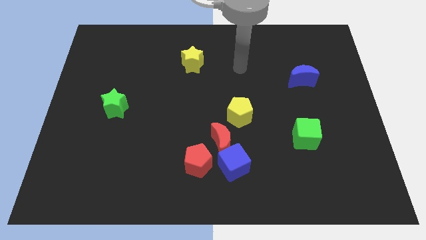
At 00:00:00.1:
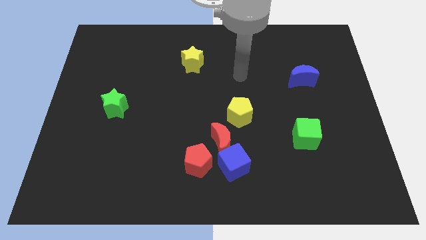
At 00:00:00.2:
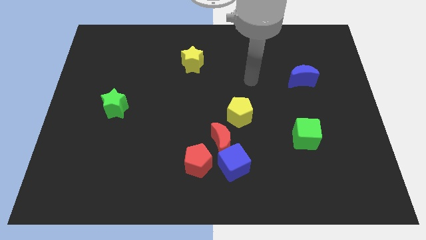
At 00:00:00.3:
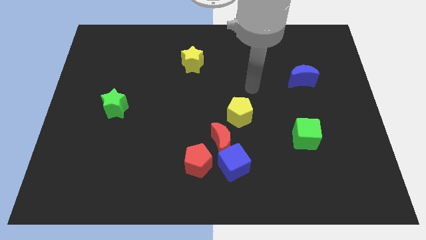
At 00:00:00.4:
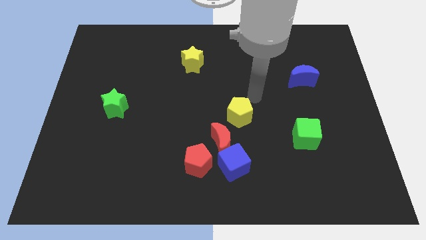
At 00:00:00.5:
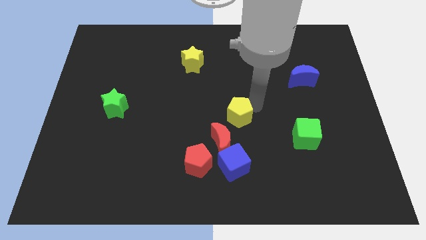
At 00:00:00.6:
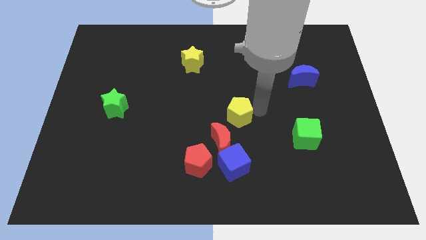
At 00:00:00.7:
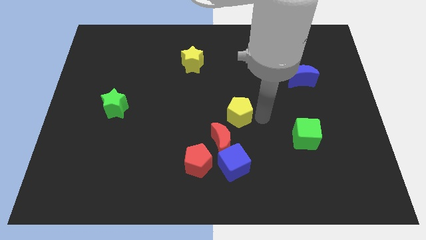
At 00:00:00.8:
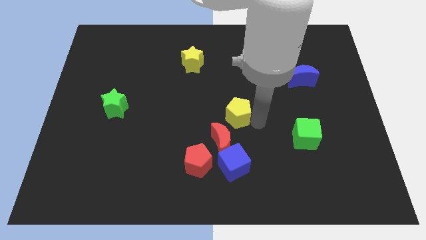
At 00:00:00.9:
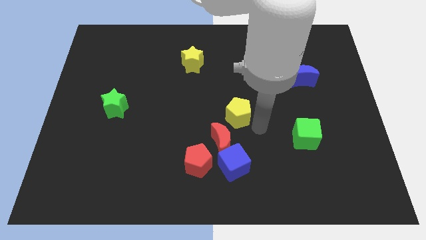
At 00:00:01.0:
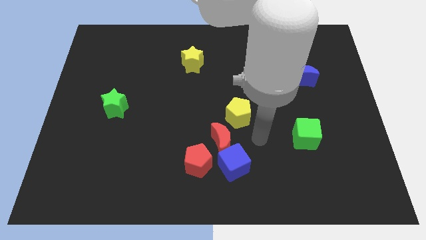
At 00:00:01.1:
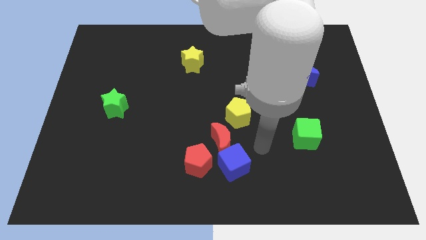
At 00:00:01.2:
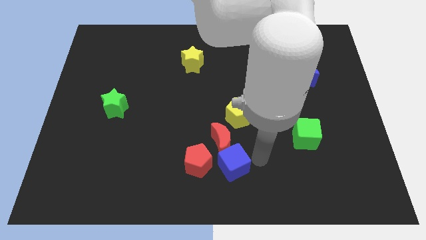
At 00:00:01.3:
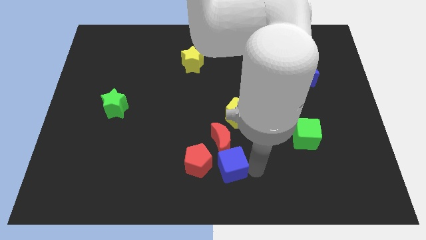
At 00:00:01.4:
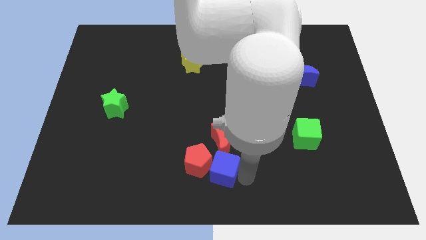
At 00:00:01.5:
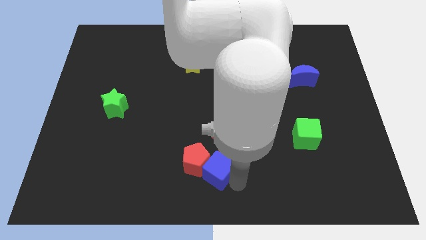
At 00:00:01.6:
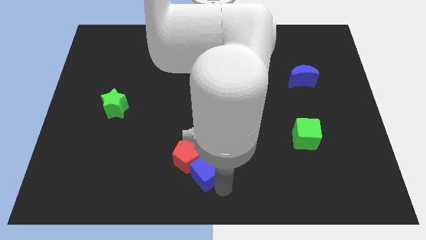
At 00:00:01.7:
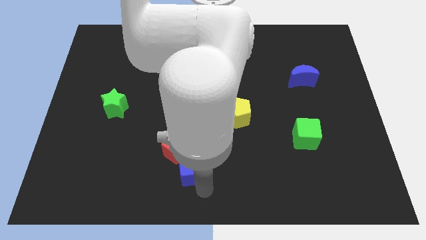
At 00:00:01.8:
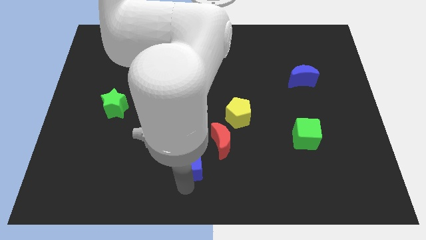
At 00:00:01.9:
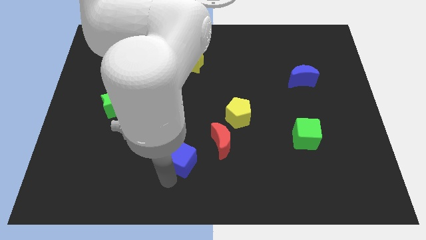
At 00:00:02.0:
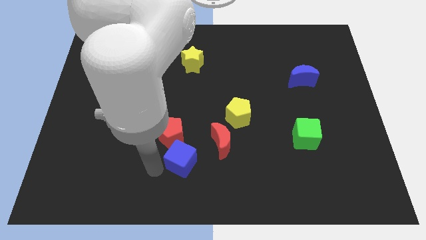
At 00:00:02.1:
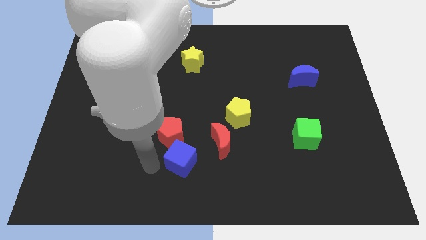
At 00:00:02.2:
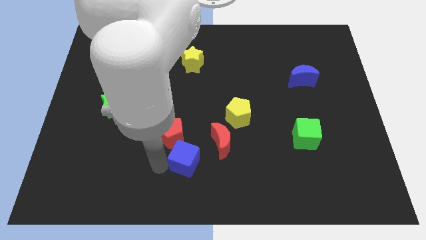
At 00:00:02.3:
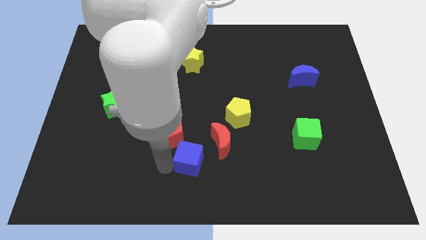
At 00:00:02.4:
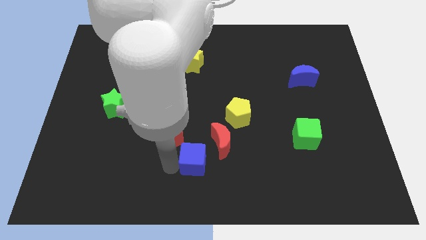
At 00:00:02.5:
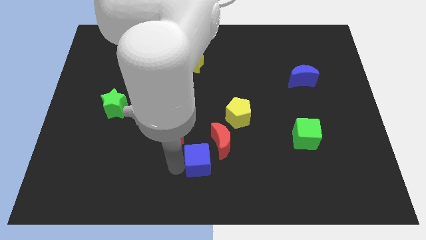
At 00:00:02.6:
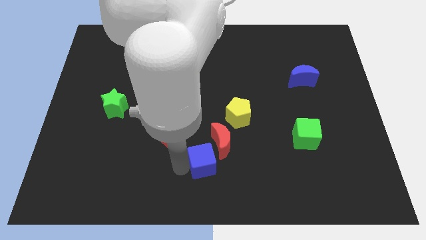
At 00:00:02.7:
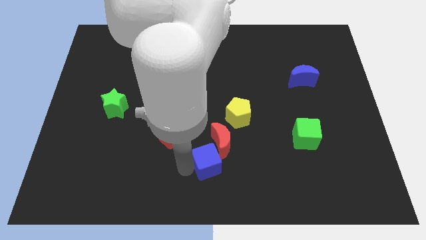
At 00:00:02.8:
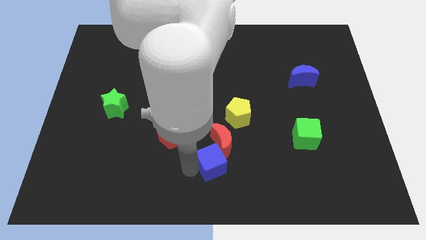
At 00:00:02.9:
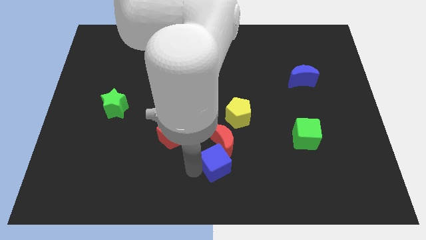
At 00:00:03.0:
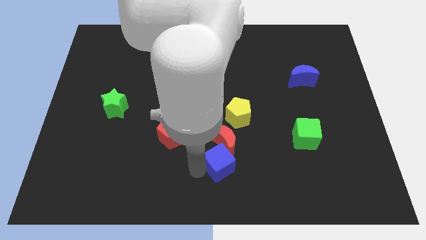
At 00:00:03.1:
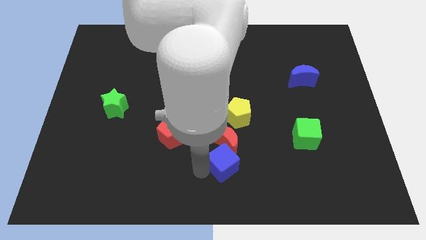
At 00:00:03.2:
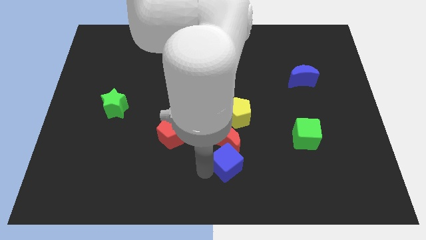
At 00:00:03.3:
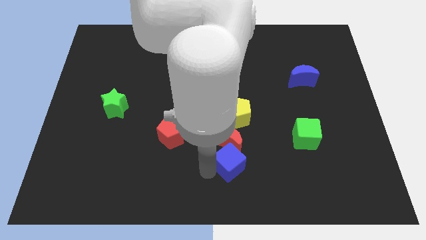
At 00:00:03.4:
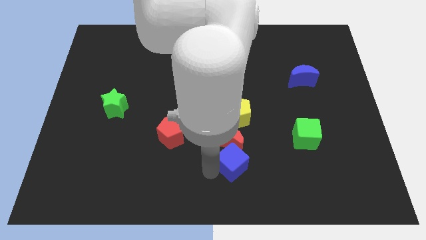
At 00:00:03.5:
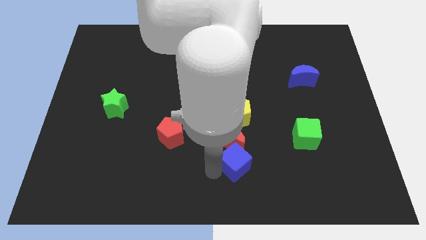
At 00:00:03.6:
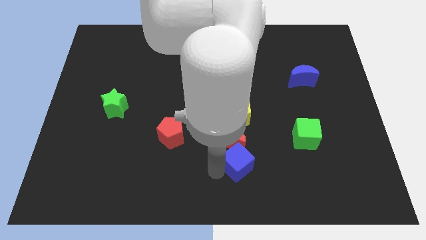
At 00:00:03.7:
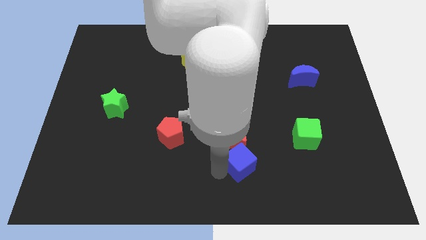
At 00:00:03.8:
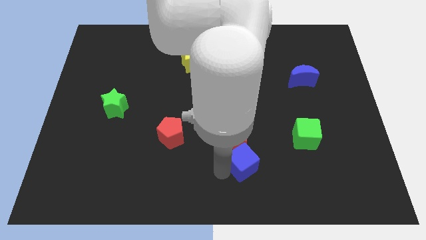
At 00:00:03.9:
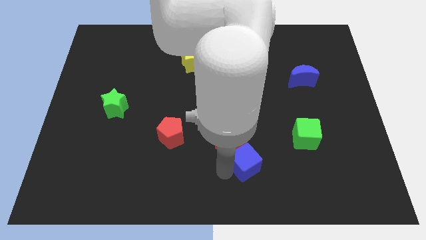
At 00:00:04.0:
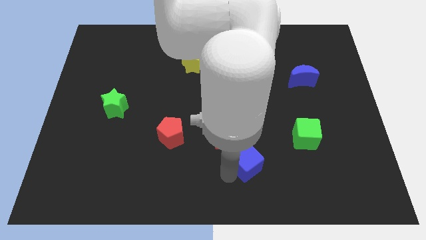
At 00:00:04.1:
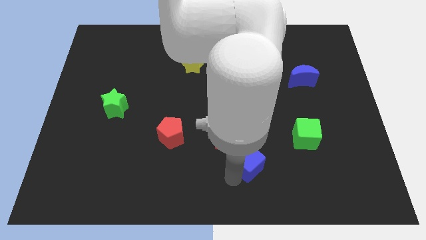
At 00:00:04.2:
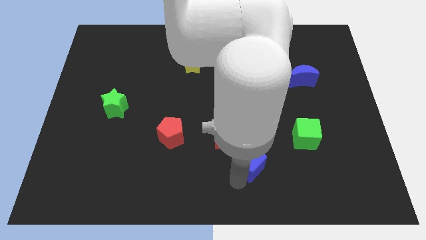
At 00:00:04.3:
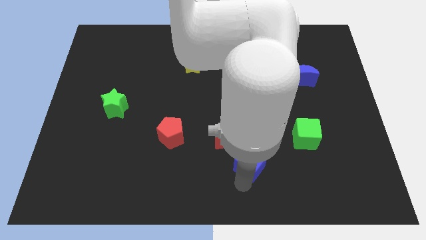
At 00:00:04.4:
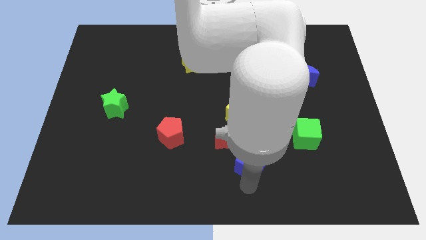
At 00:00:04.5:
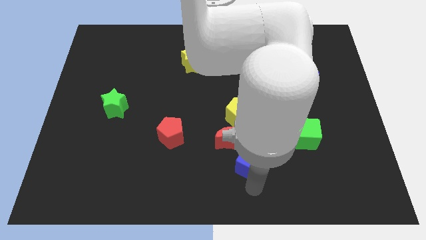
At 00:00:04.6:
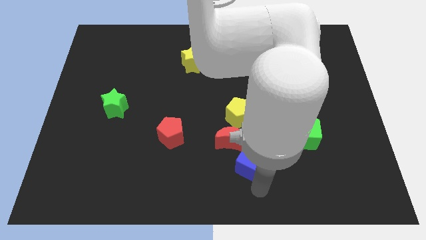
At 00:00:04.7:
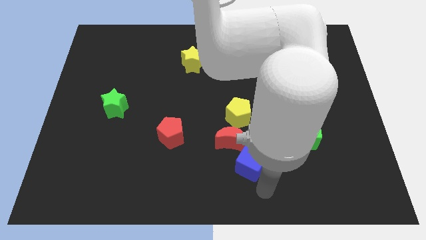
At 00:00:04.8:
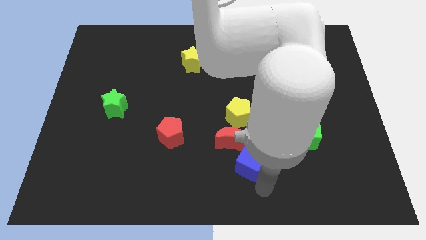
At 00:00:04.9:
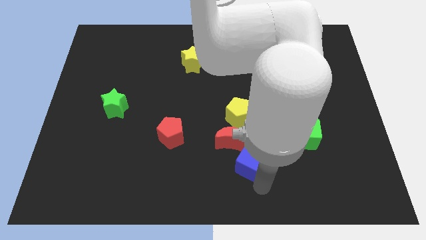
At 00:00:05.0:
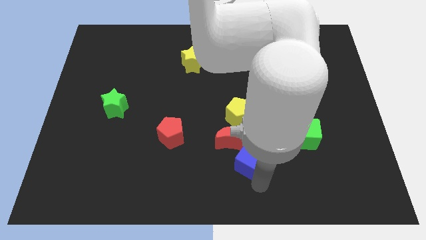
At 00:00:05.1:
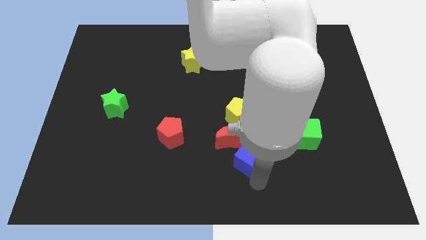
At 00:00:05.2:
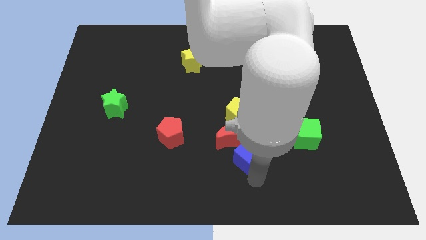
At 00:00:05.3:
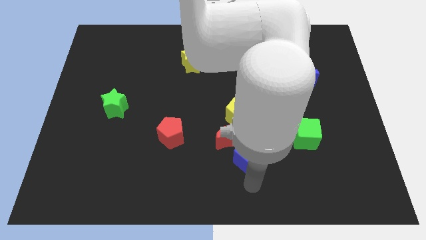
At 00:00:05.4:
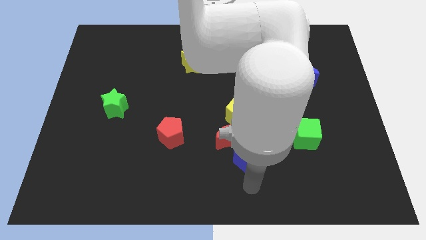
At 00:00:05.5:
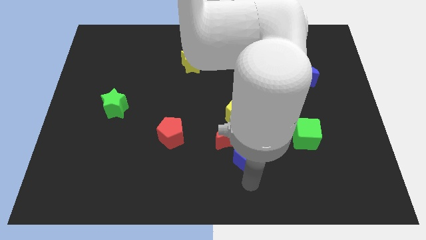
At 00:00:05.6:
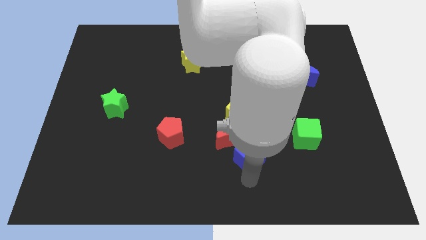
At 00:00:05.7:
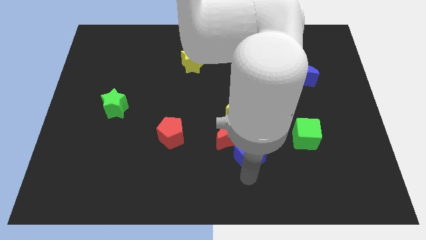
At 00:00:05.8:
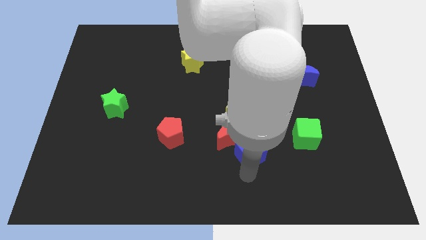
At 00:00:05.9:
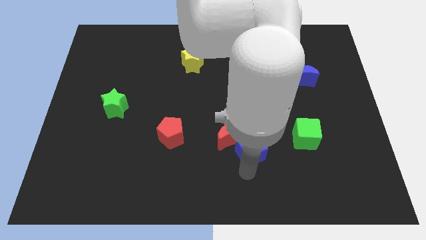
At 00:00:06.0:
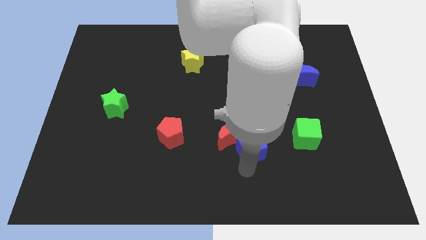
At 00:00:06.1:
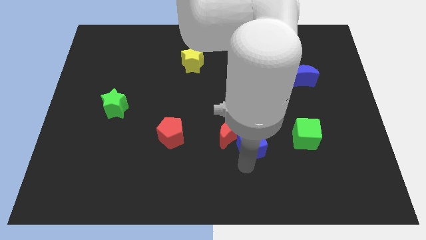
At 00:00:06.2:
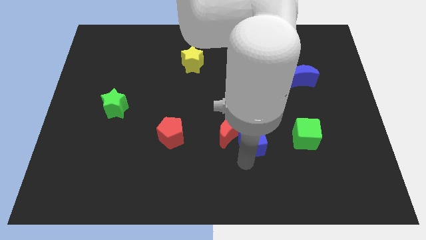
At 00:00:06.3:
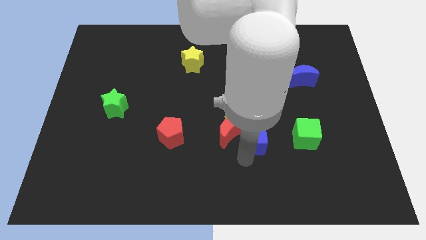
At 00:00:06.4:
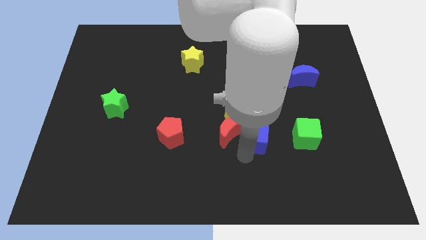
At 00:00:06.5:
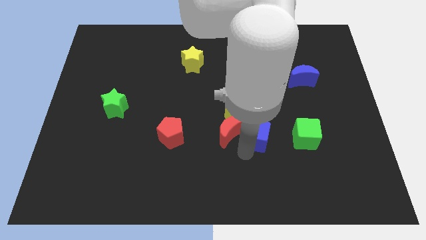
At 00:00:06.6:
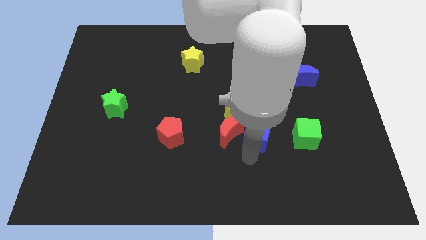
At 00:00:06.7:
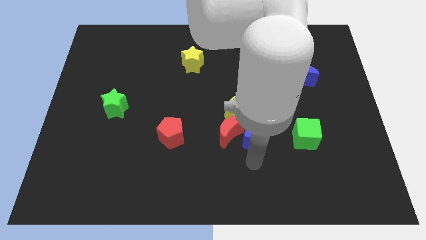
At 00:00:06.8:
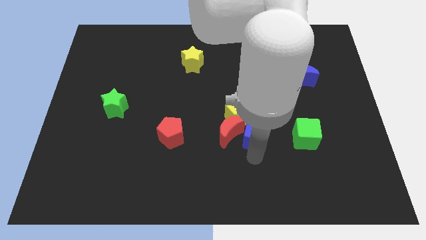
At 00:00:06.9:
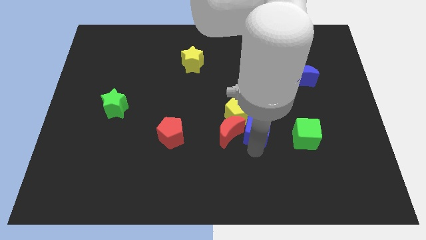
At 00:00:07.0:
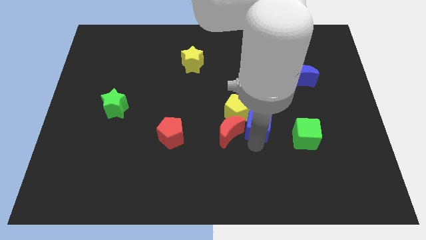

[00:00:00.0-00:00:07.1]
move the blue cube to the center of the board
